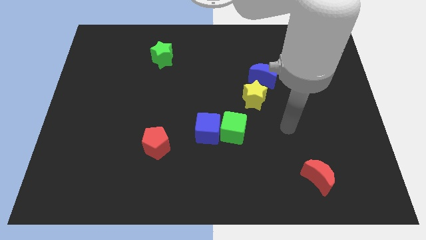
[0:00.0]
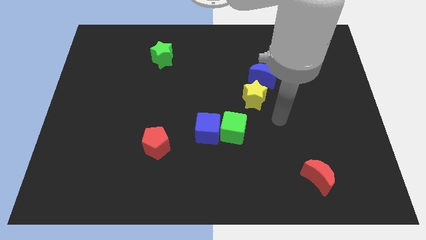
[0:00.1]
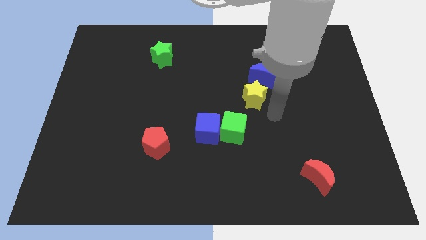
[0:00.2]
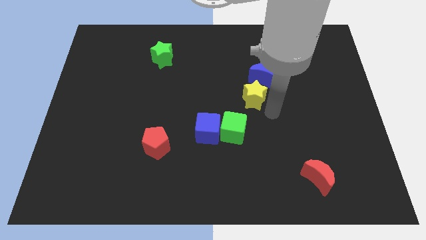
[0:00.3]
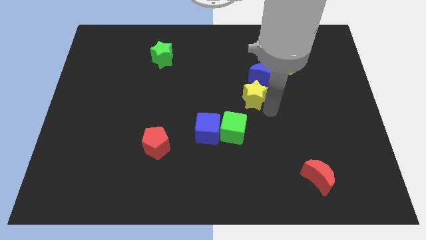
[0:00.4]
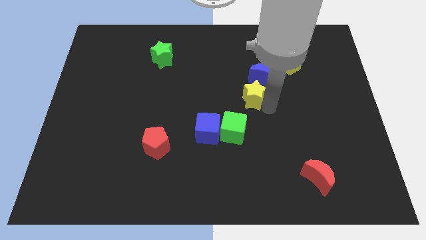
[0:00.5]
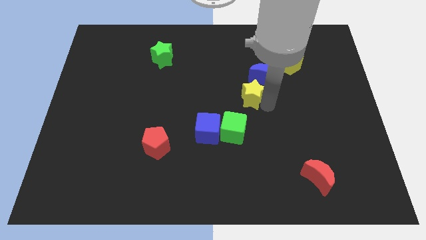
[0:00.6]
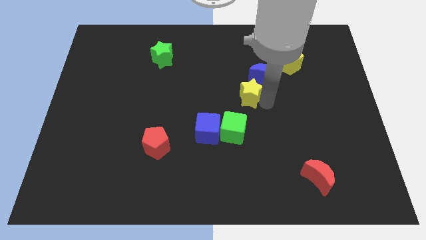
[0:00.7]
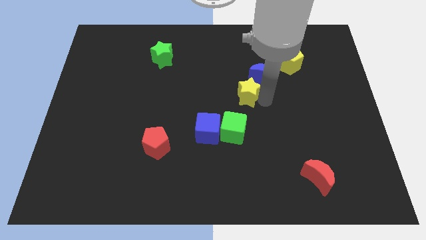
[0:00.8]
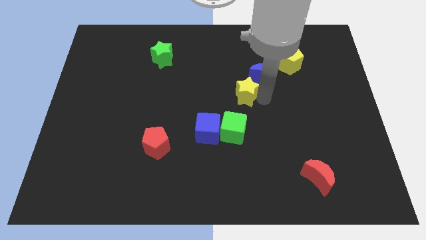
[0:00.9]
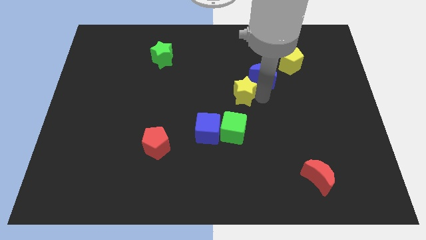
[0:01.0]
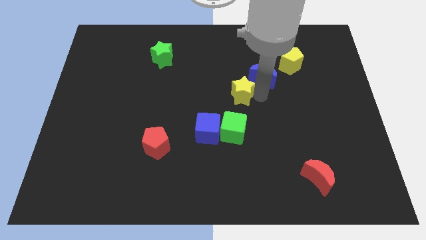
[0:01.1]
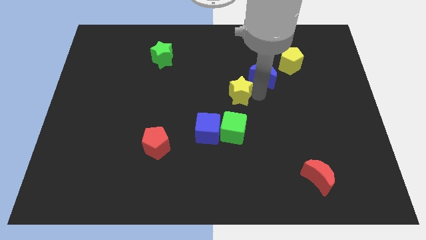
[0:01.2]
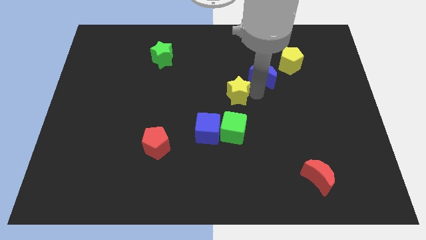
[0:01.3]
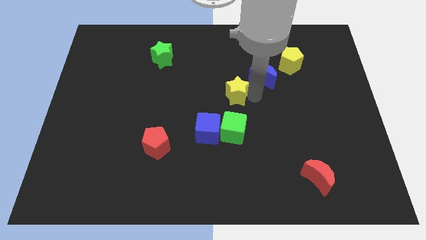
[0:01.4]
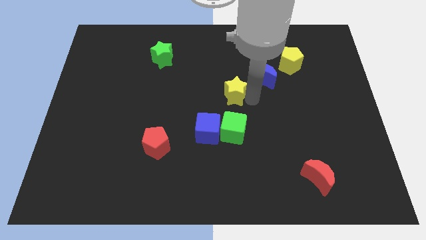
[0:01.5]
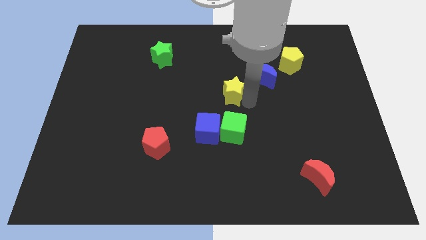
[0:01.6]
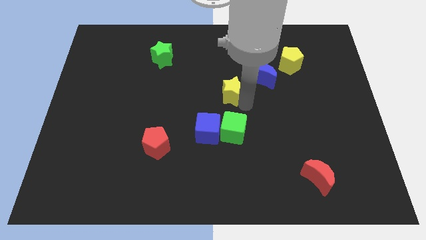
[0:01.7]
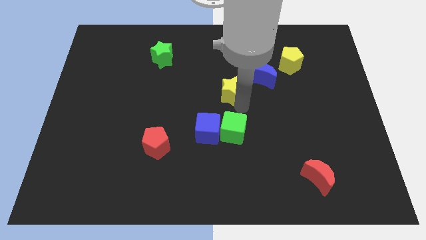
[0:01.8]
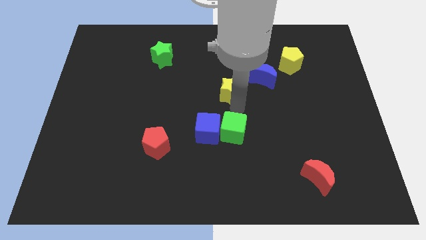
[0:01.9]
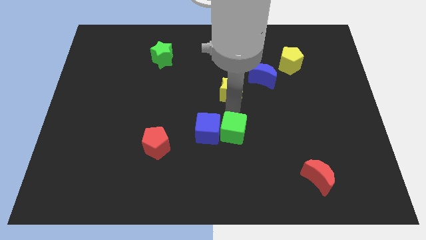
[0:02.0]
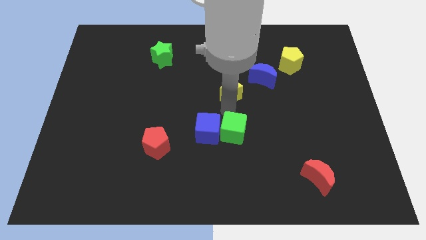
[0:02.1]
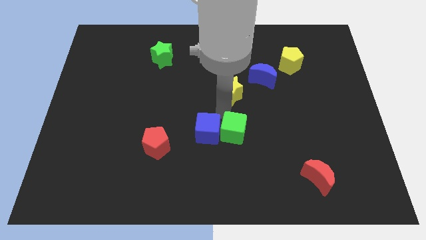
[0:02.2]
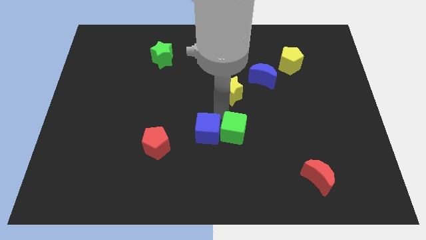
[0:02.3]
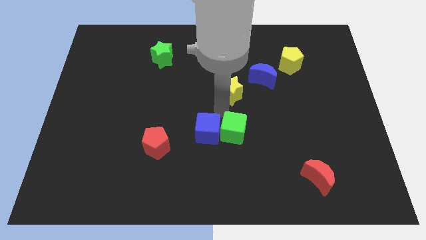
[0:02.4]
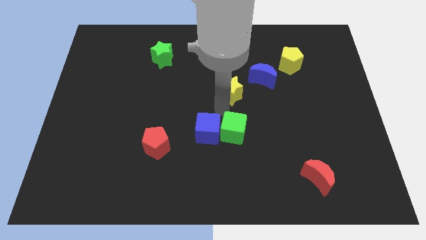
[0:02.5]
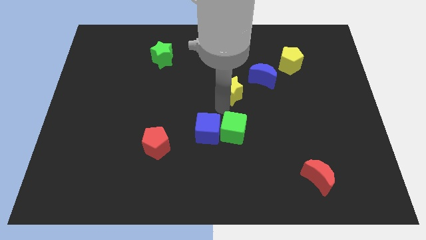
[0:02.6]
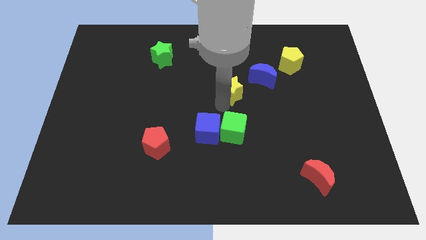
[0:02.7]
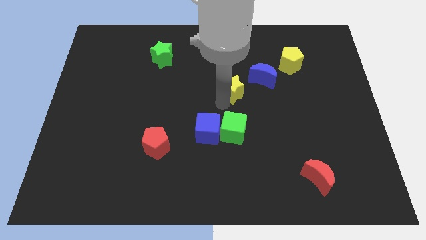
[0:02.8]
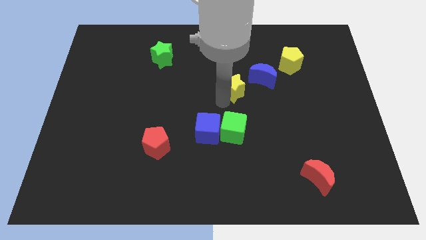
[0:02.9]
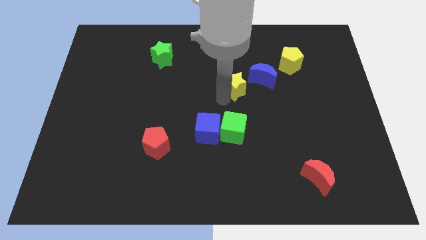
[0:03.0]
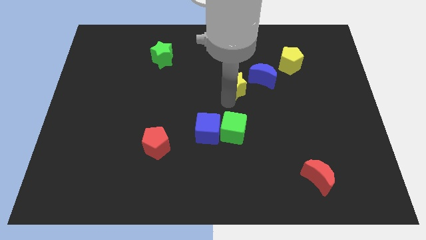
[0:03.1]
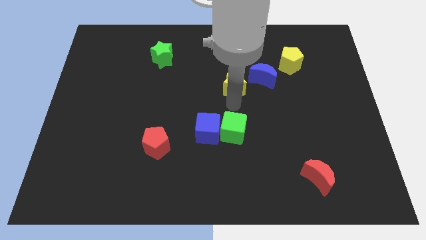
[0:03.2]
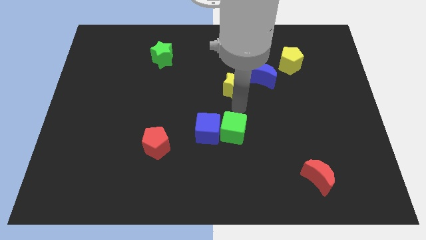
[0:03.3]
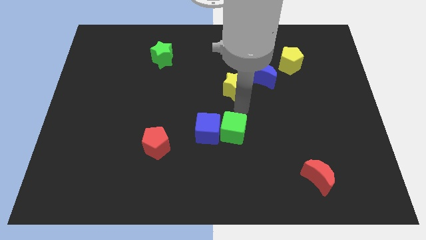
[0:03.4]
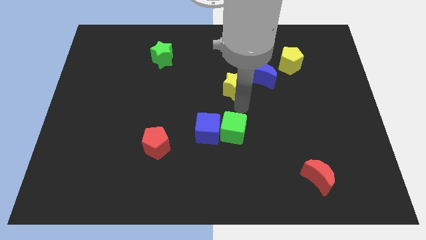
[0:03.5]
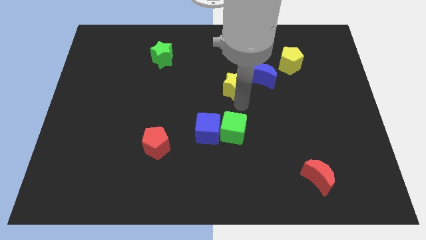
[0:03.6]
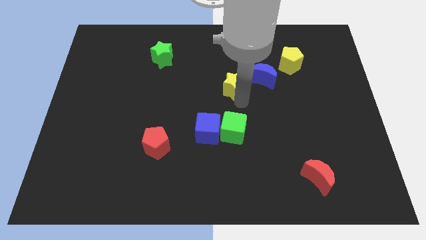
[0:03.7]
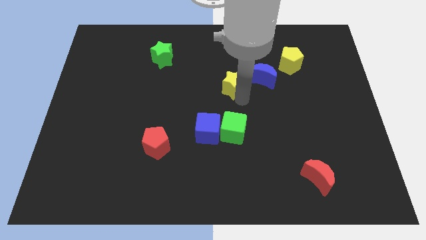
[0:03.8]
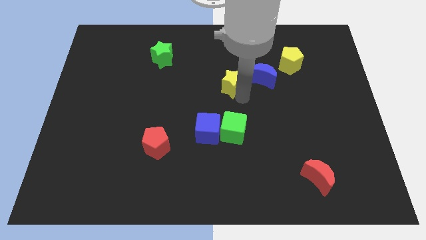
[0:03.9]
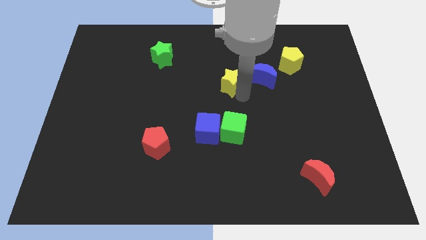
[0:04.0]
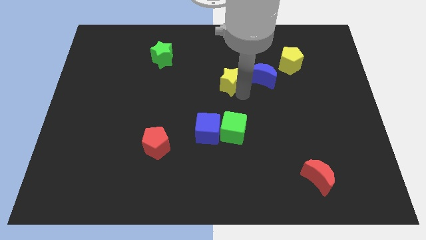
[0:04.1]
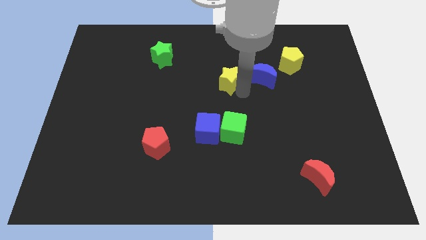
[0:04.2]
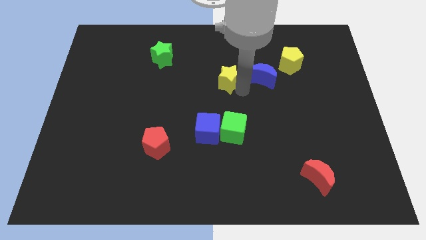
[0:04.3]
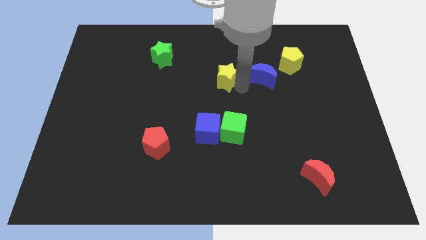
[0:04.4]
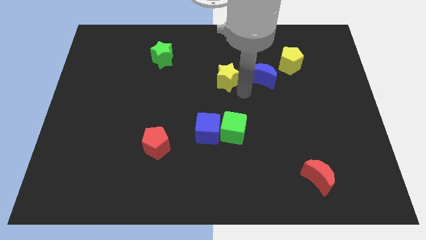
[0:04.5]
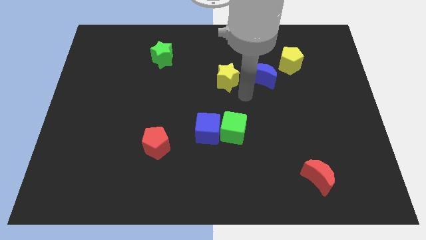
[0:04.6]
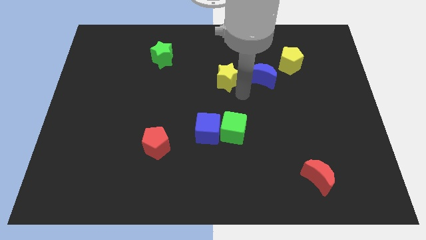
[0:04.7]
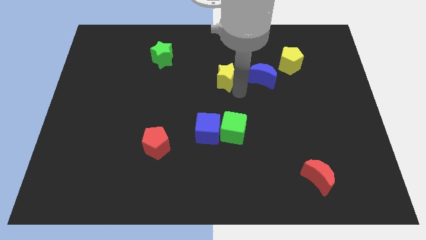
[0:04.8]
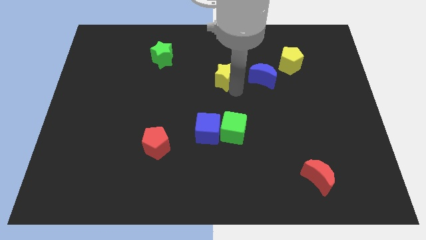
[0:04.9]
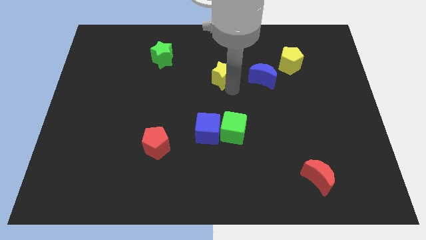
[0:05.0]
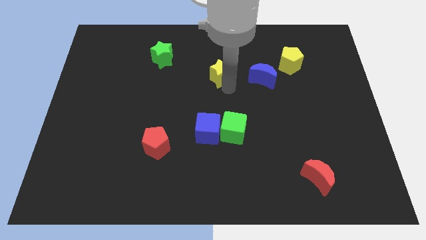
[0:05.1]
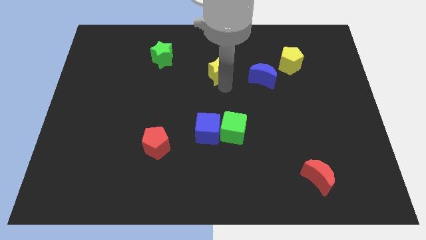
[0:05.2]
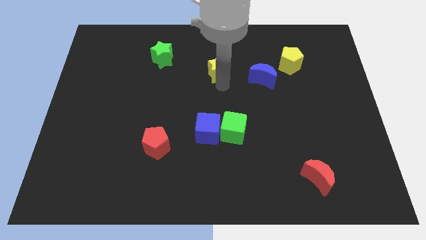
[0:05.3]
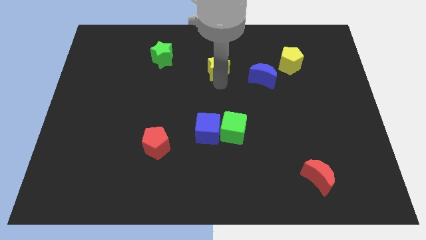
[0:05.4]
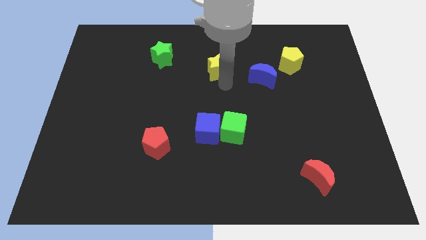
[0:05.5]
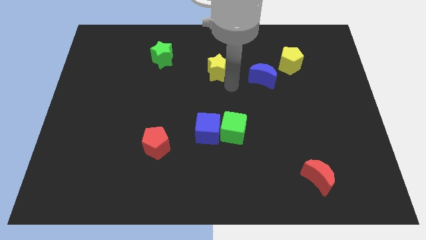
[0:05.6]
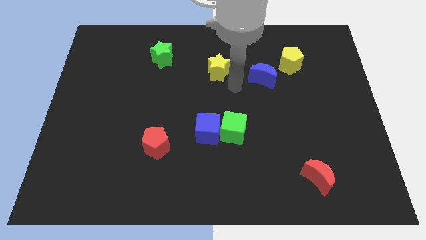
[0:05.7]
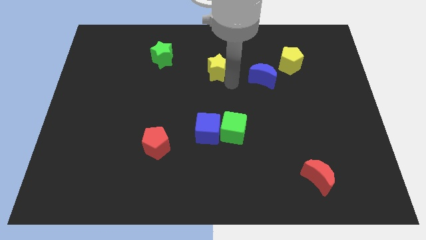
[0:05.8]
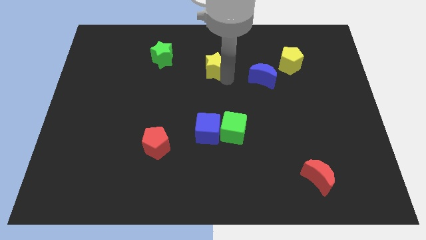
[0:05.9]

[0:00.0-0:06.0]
put the yellow star to the right side of the green star

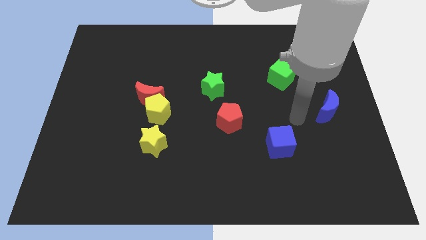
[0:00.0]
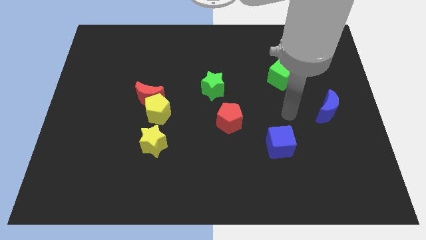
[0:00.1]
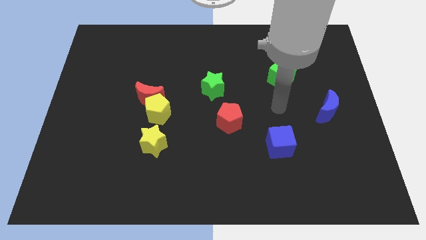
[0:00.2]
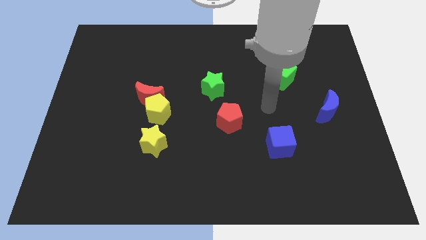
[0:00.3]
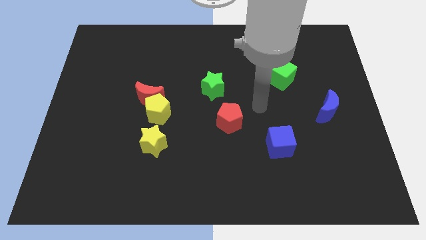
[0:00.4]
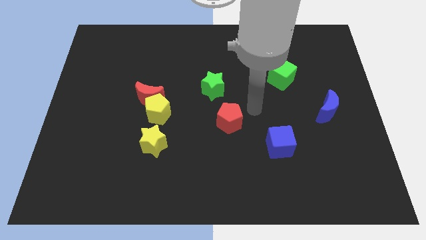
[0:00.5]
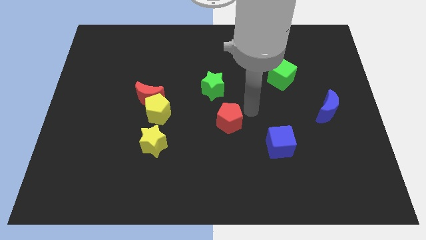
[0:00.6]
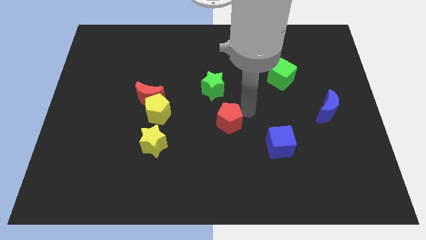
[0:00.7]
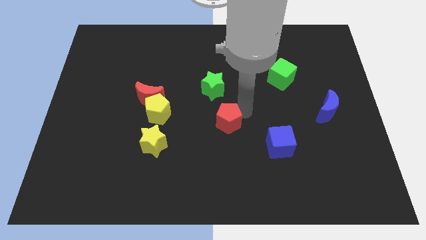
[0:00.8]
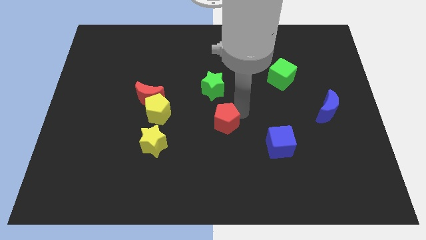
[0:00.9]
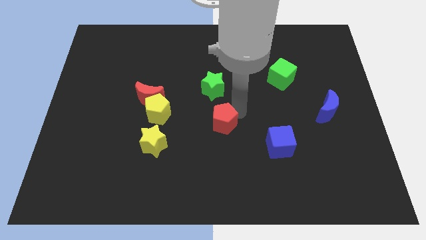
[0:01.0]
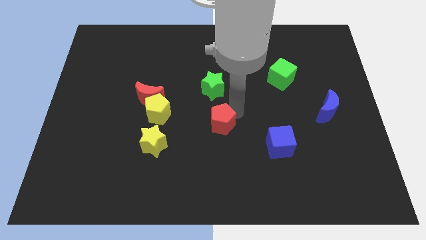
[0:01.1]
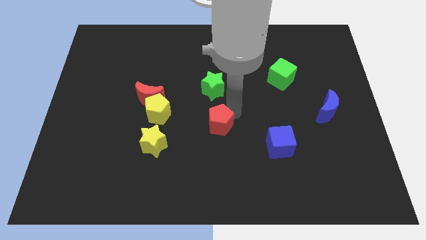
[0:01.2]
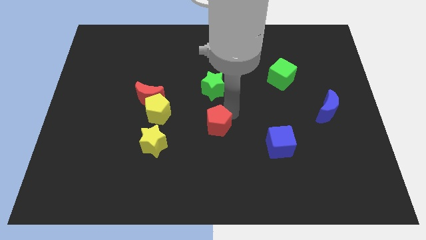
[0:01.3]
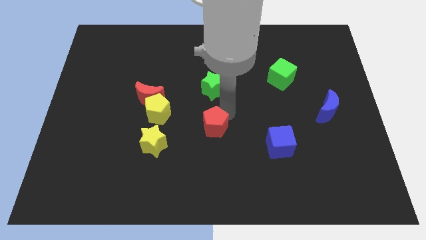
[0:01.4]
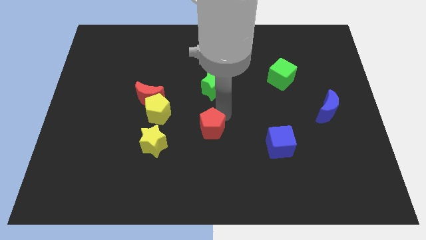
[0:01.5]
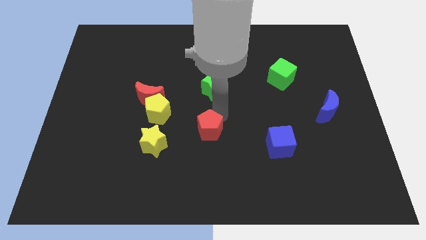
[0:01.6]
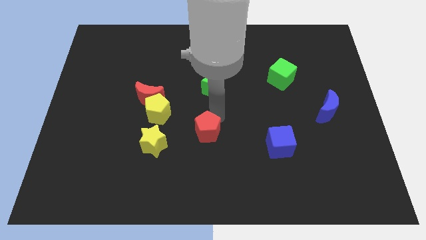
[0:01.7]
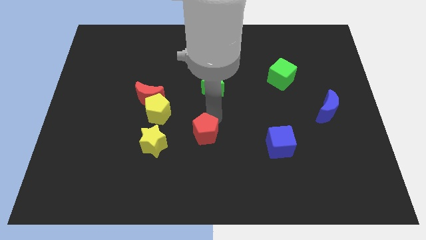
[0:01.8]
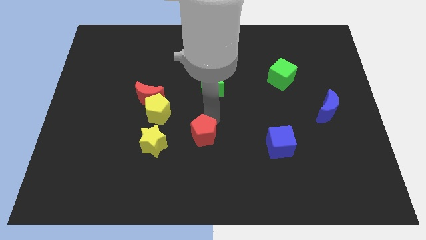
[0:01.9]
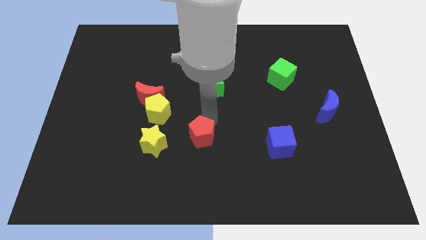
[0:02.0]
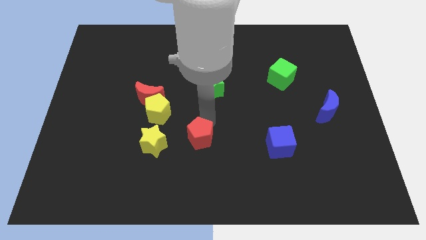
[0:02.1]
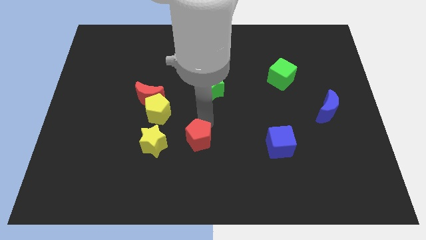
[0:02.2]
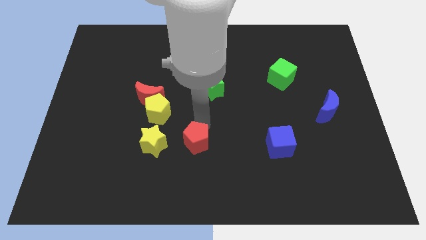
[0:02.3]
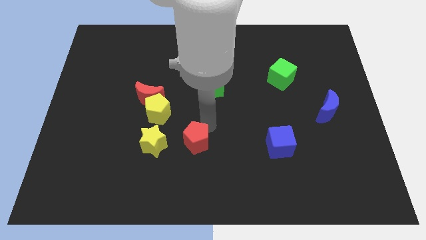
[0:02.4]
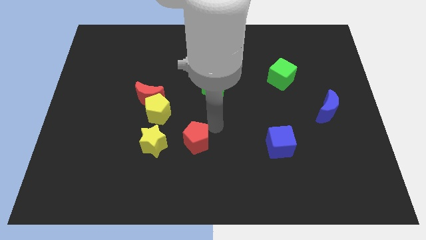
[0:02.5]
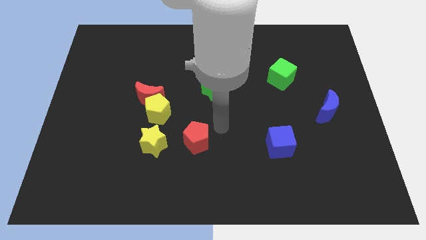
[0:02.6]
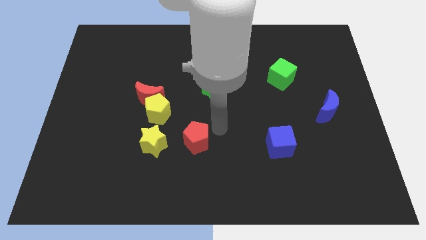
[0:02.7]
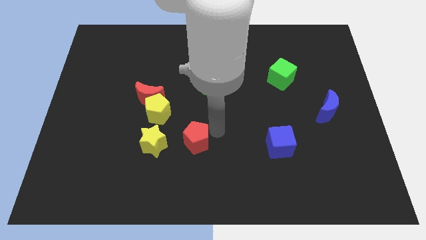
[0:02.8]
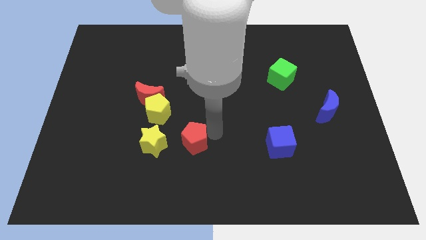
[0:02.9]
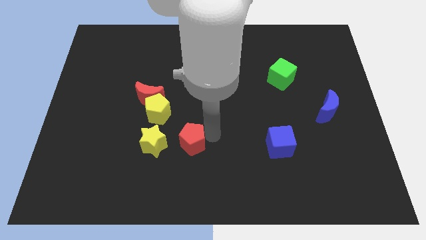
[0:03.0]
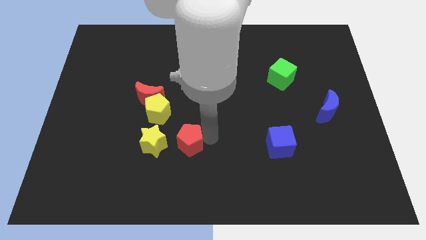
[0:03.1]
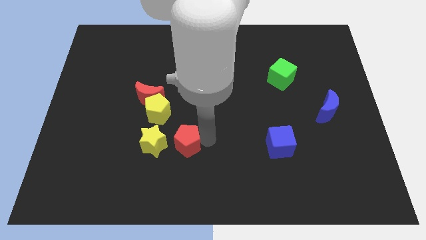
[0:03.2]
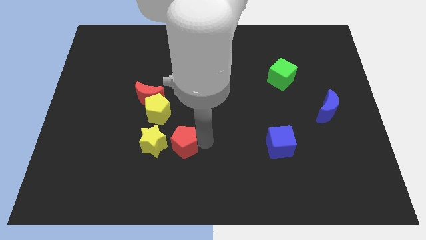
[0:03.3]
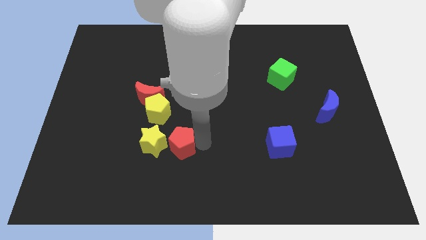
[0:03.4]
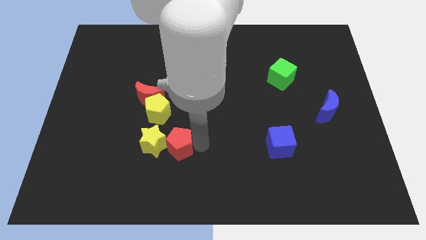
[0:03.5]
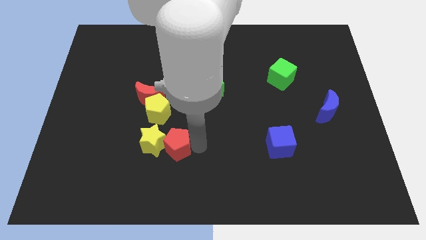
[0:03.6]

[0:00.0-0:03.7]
put the red pentagon below the yellow pentagon
